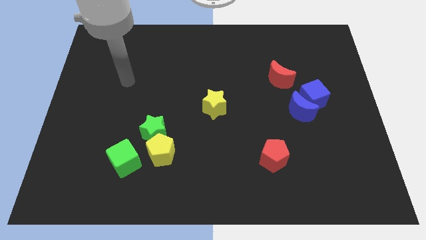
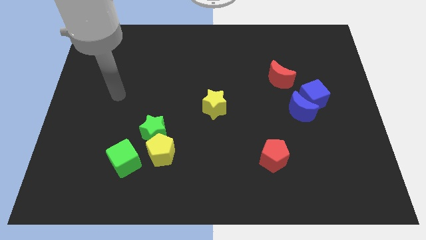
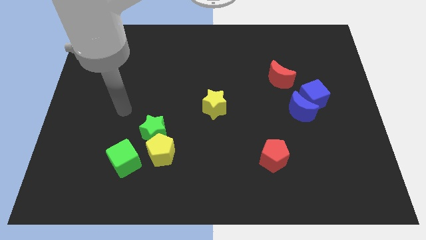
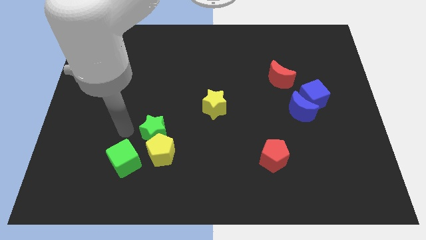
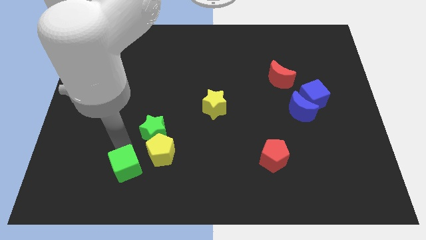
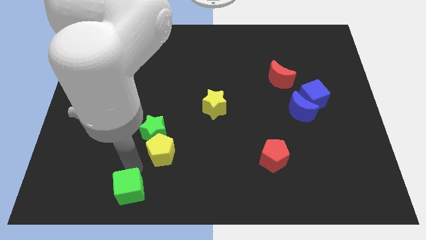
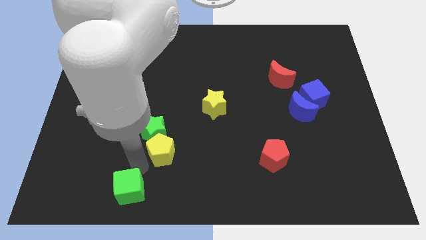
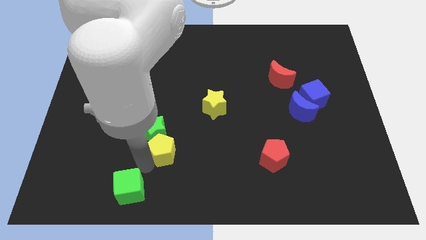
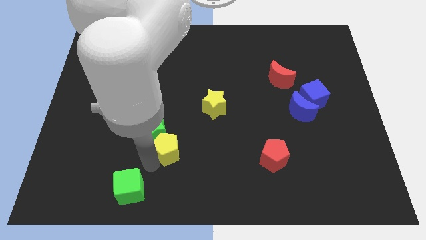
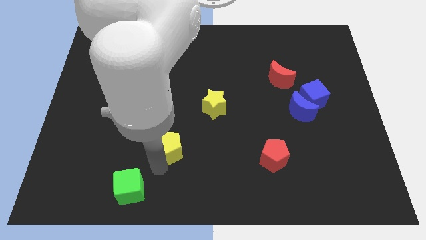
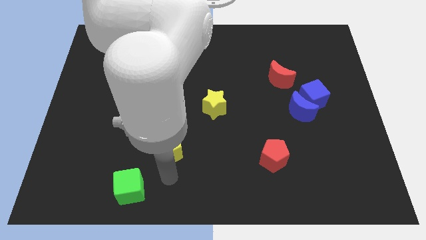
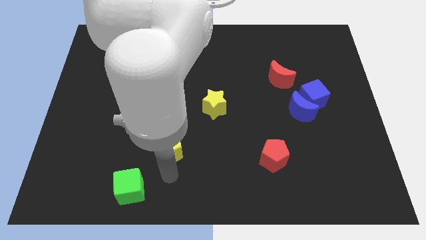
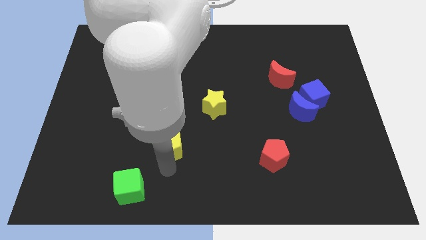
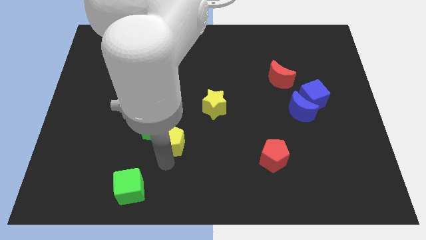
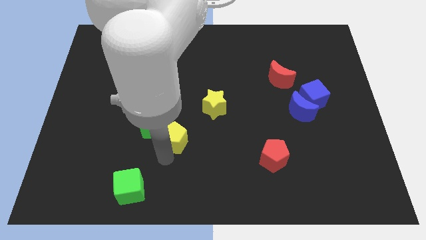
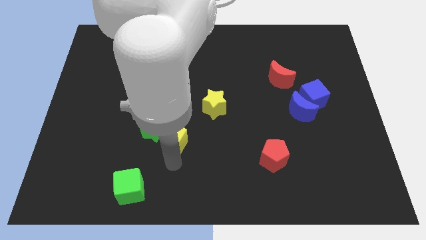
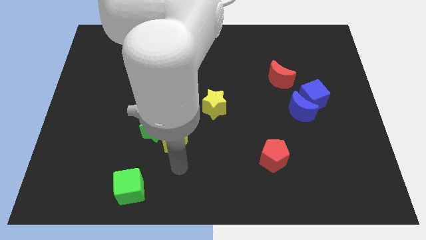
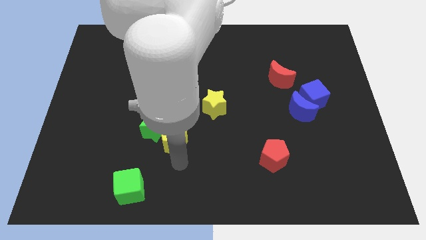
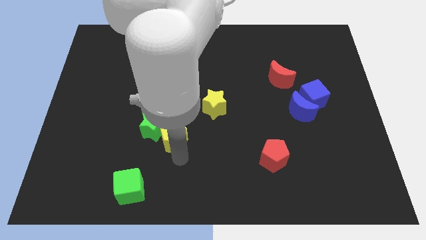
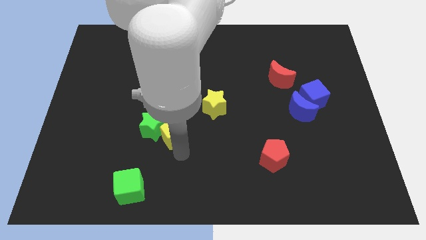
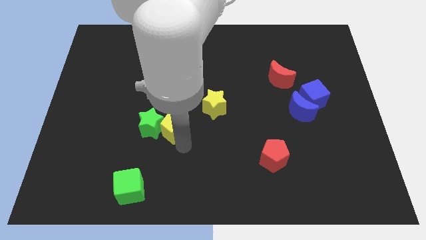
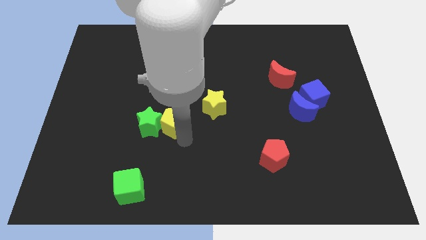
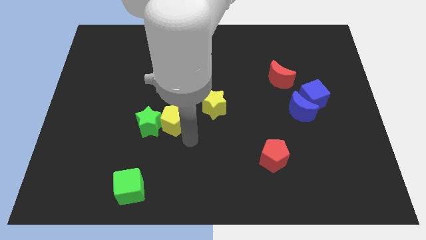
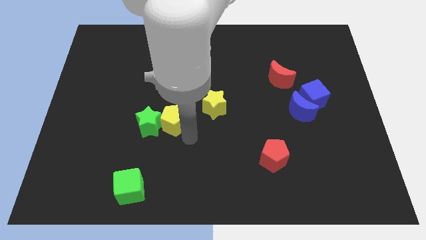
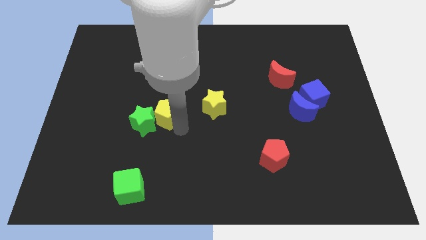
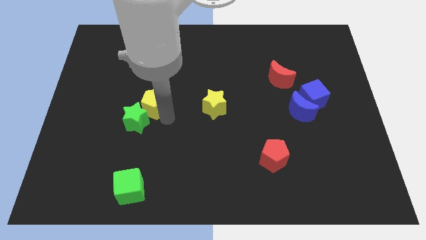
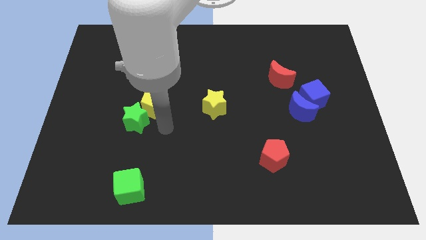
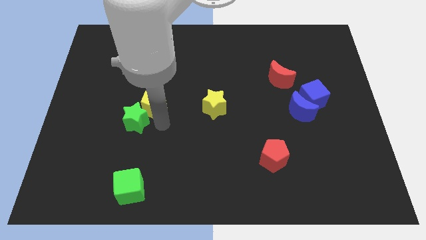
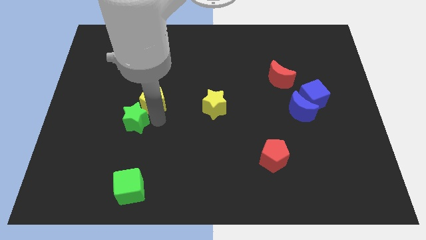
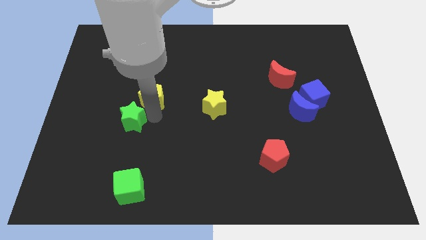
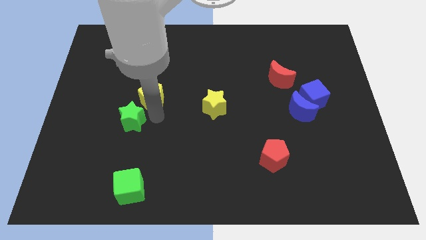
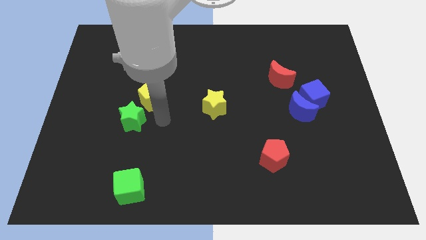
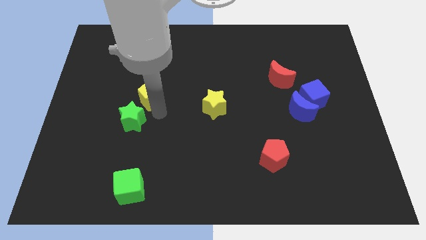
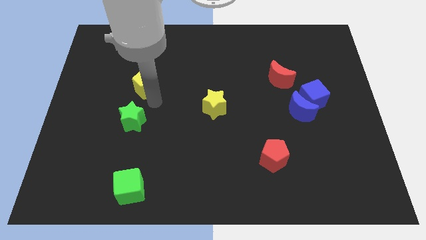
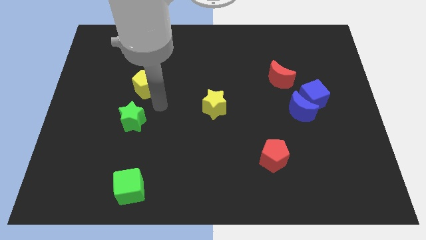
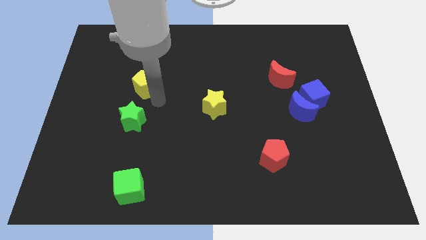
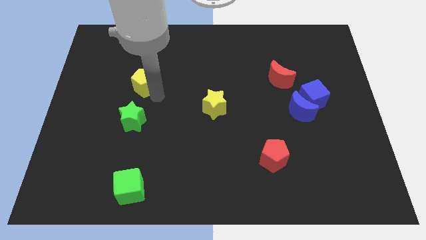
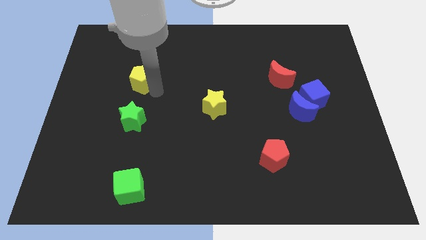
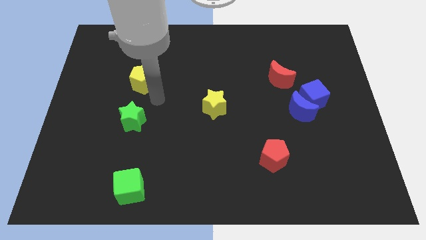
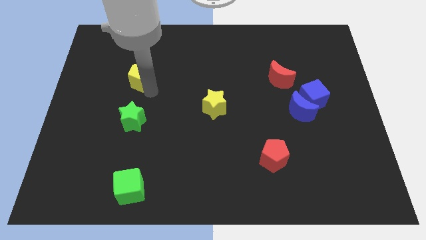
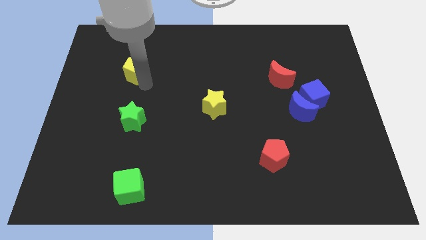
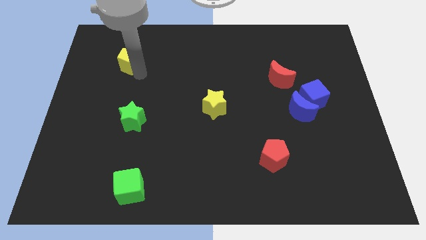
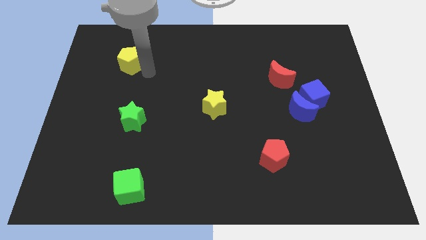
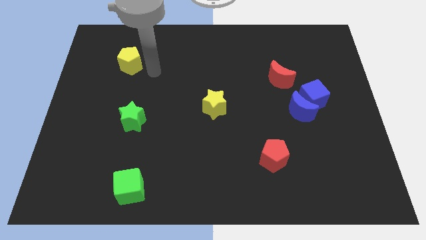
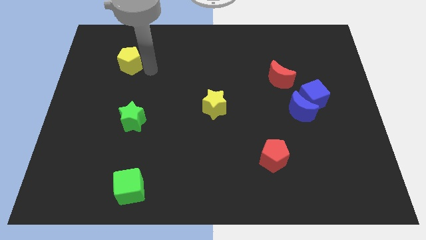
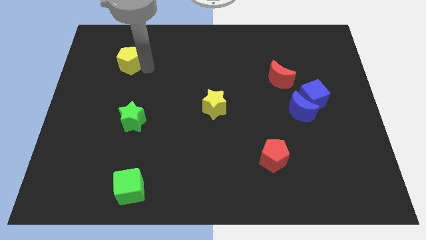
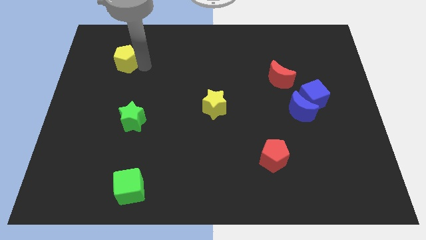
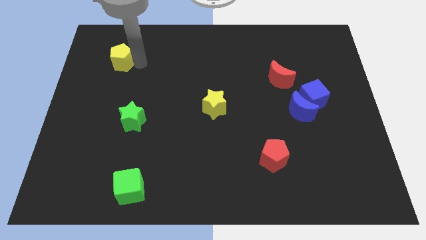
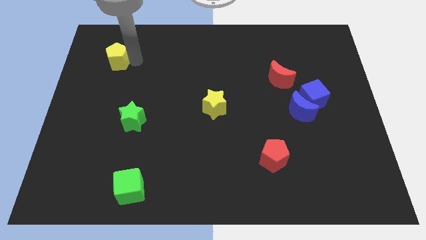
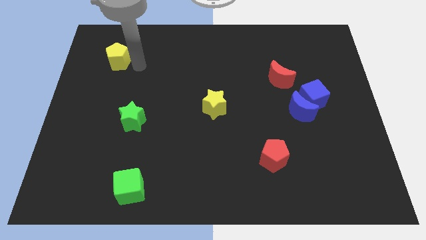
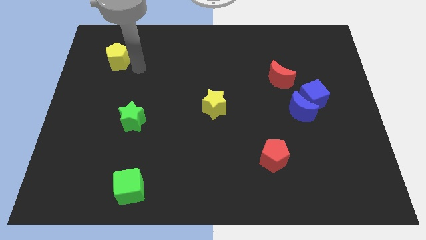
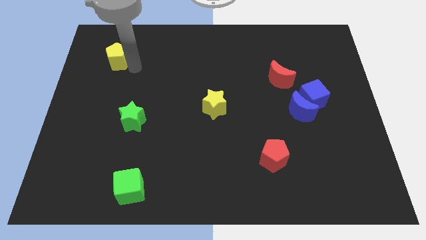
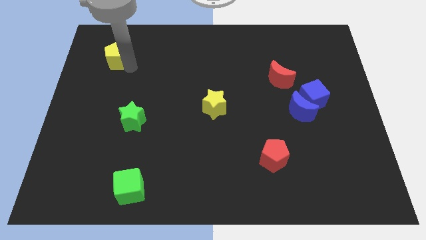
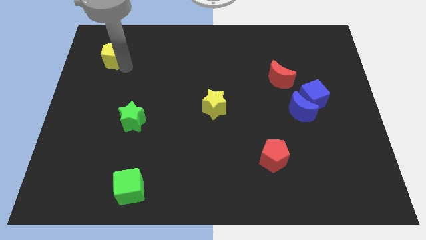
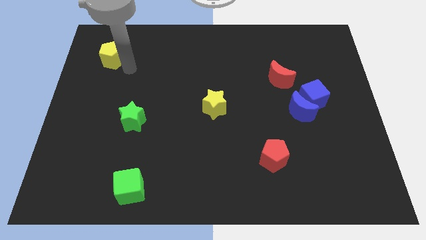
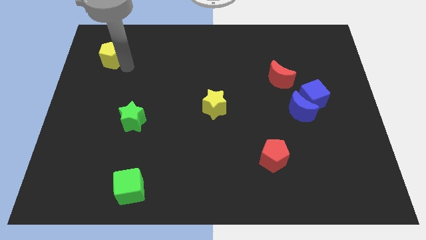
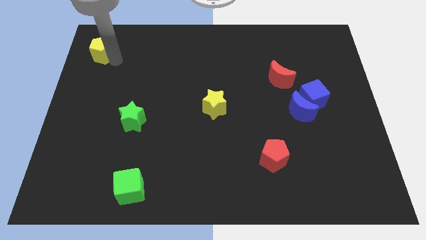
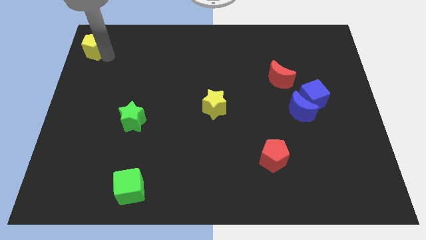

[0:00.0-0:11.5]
put the yellow pentagon to the upper left corner

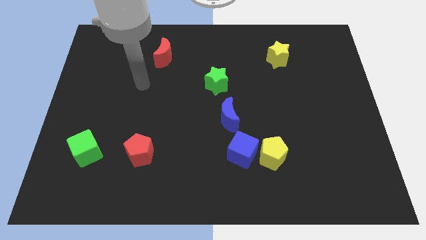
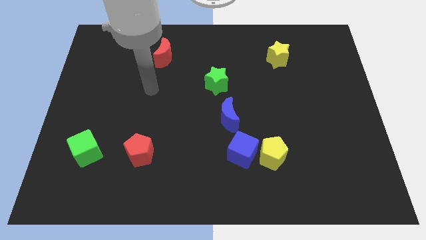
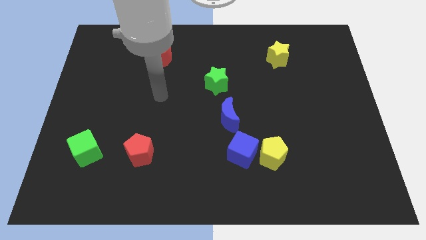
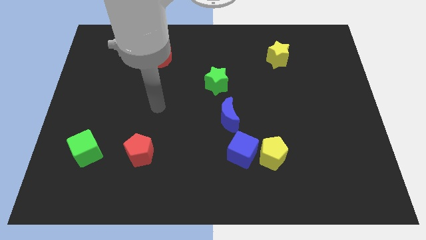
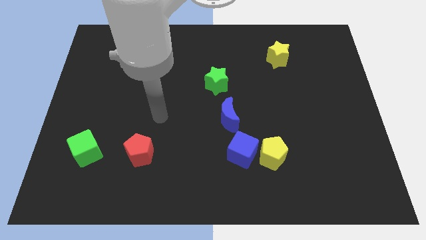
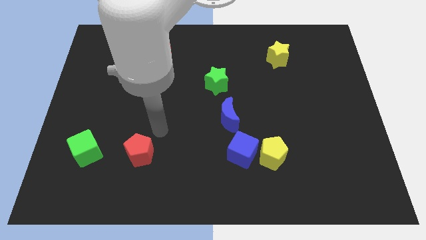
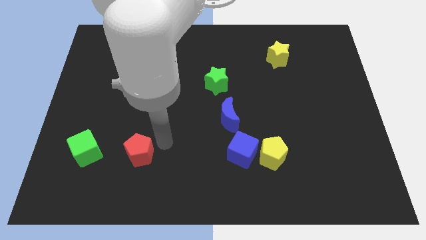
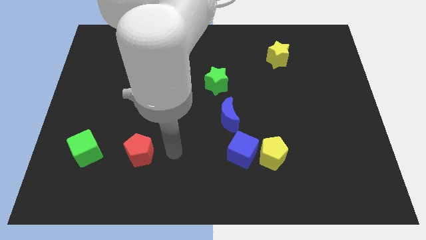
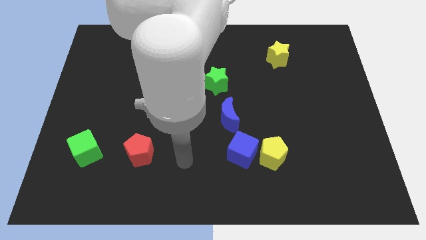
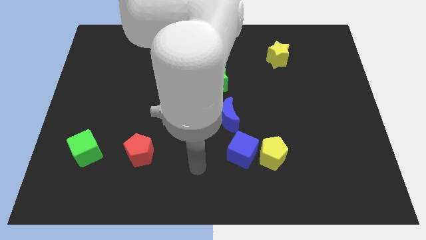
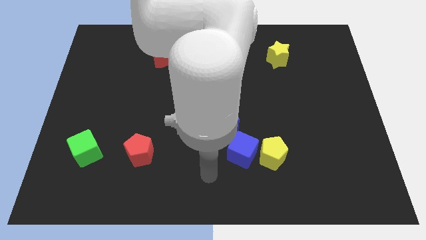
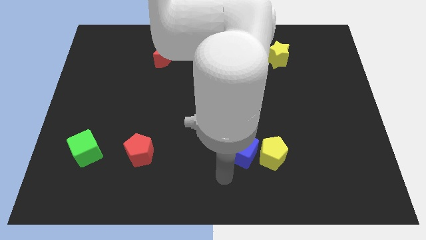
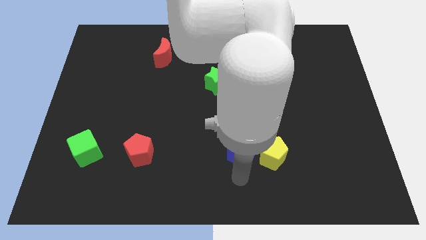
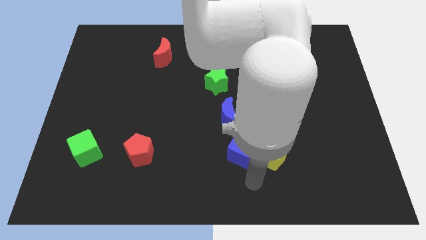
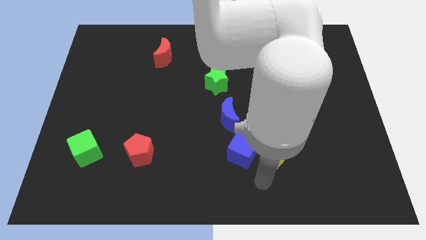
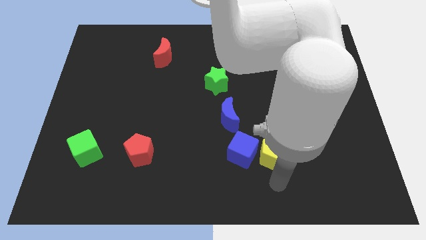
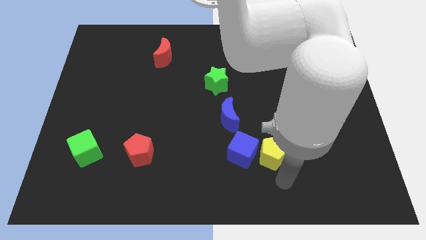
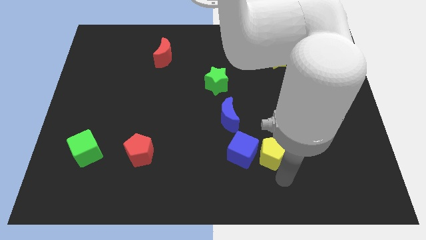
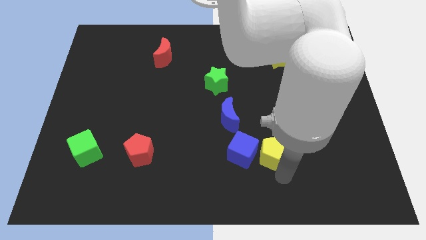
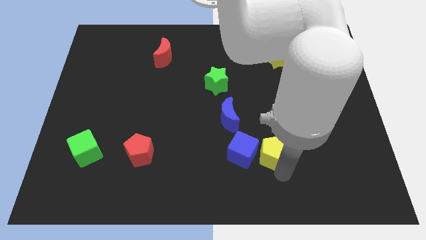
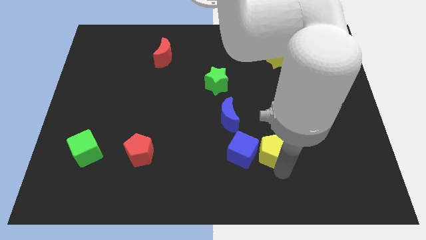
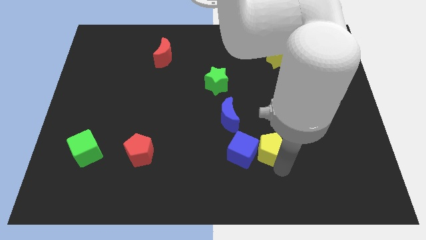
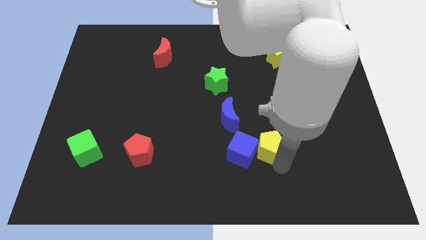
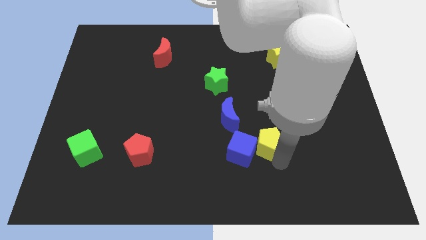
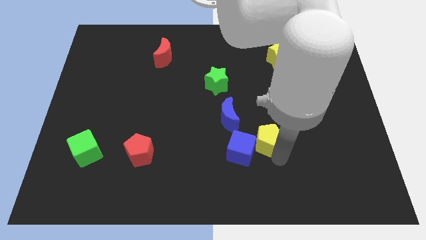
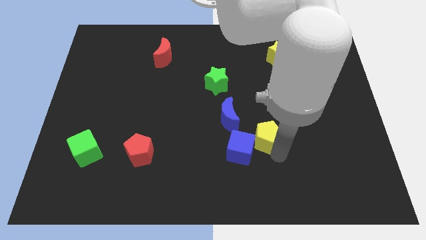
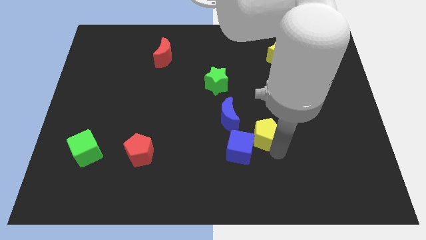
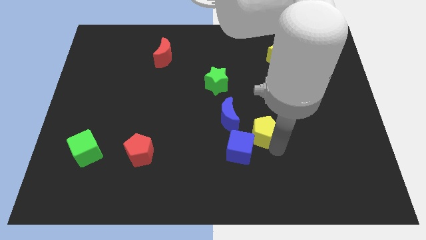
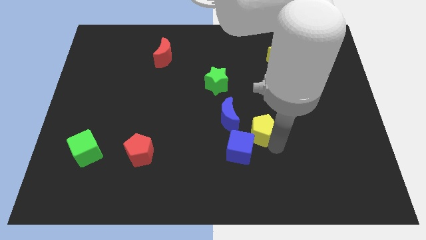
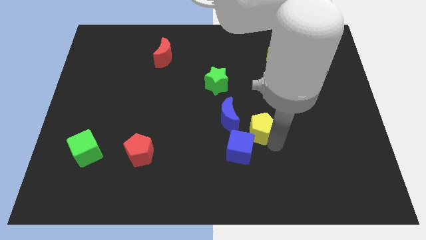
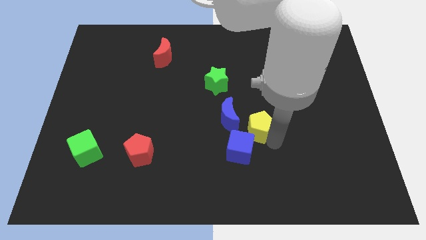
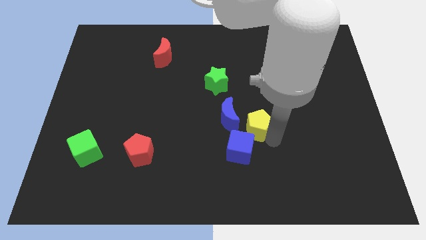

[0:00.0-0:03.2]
push the yellow pentagon to the middle of the board
